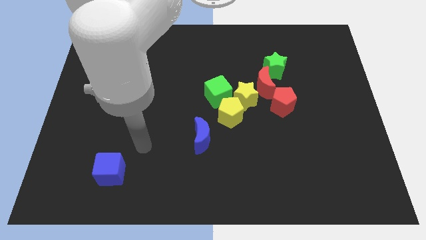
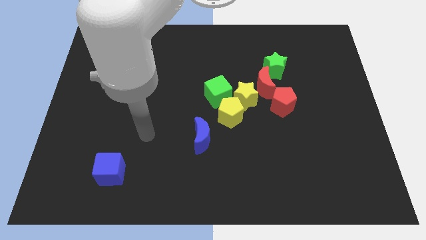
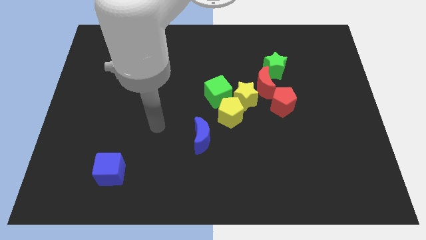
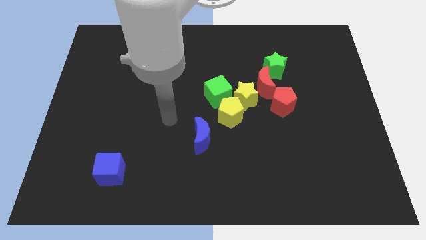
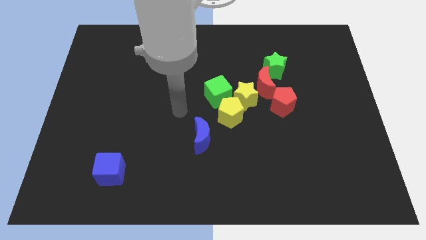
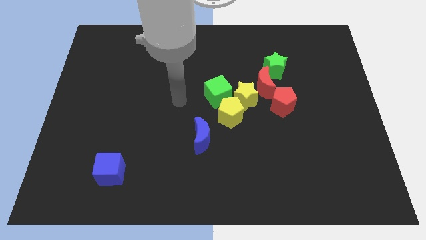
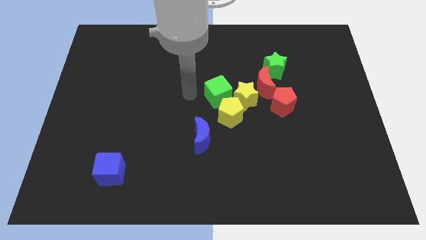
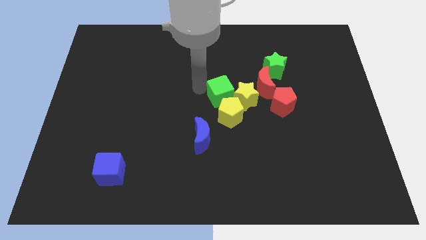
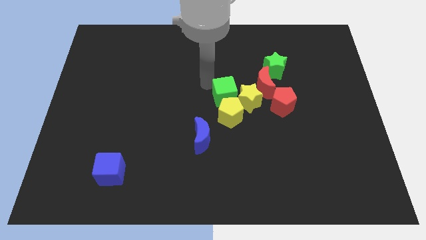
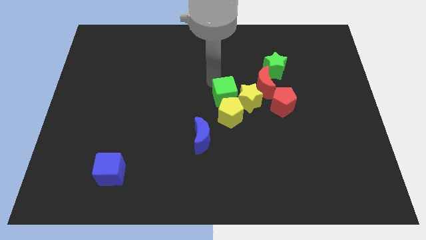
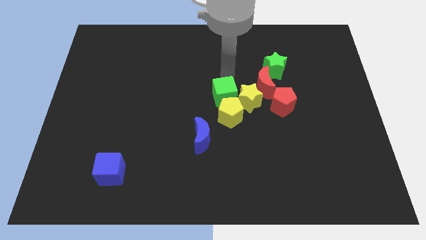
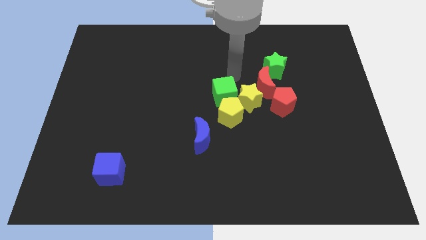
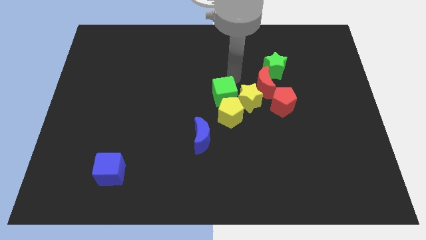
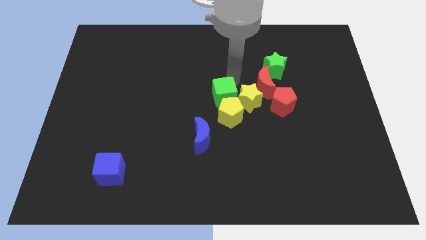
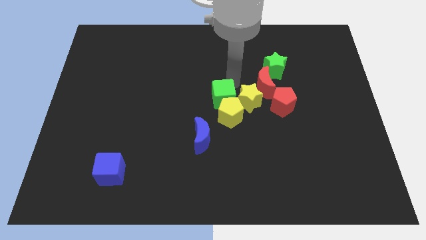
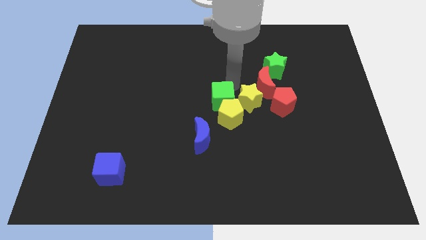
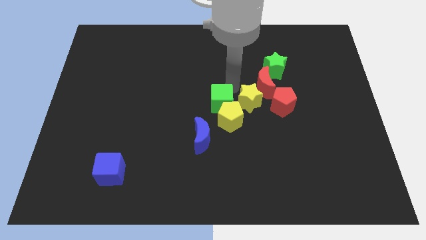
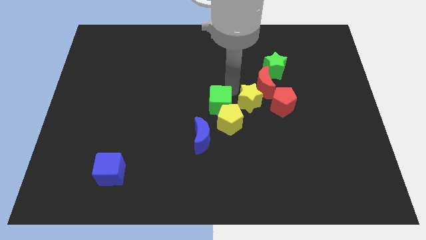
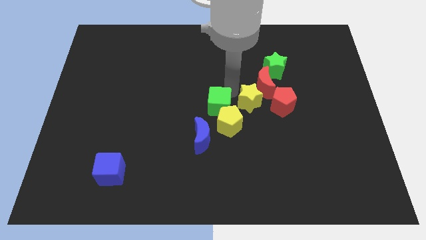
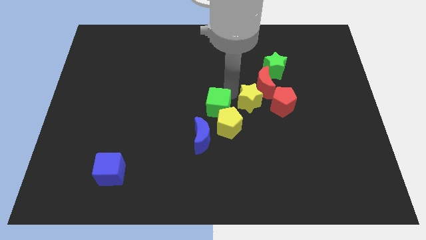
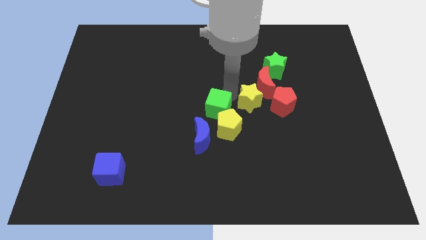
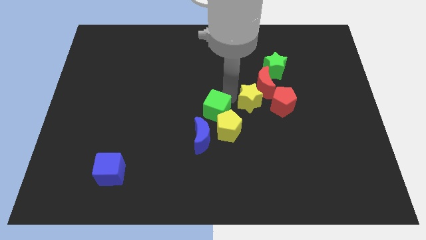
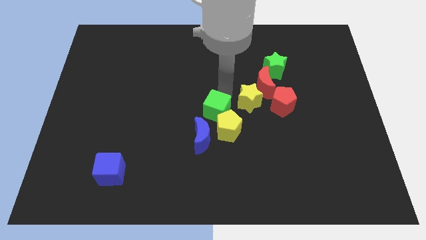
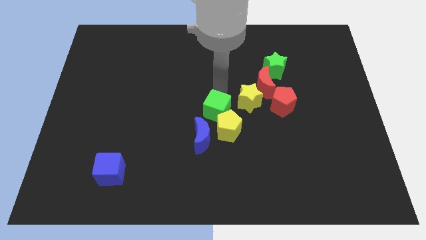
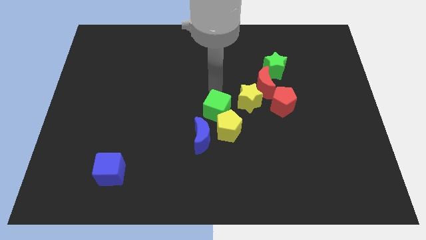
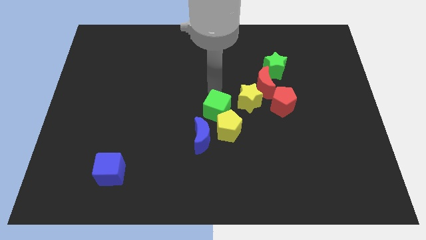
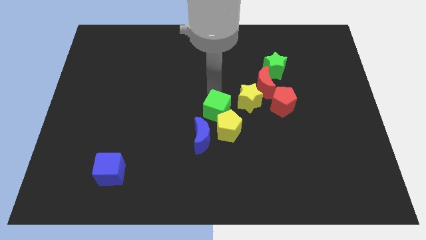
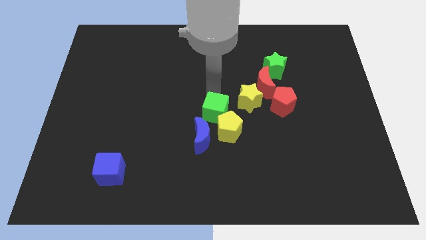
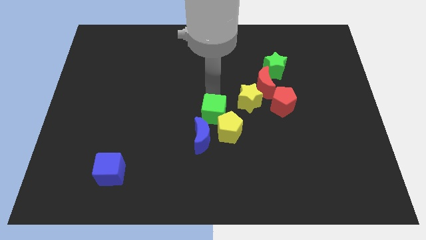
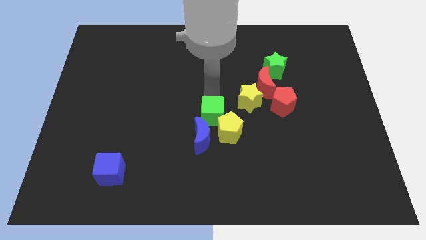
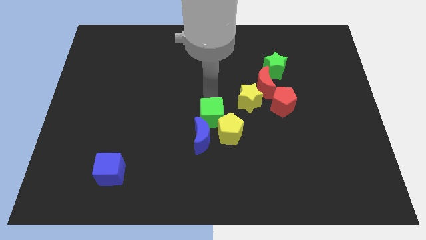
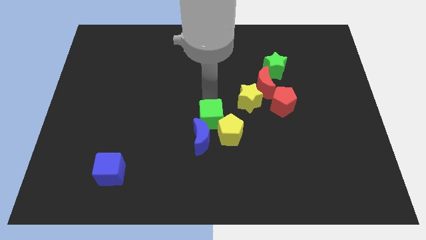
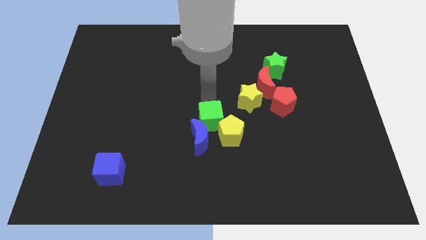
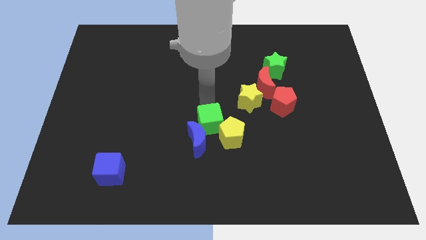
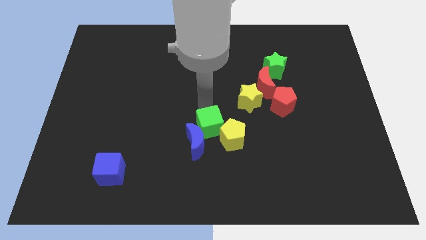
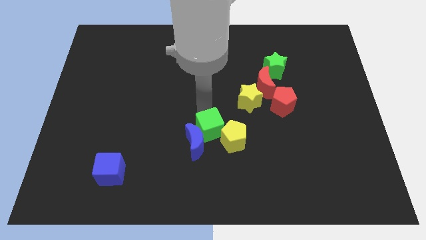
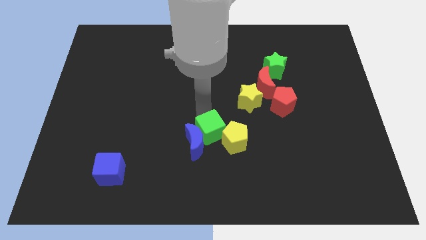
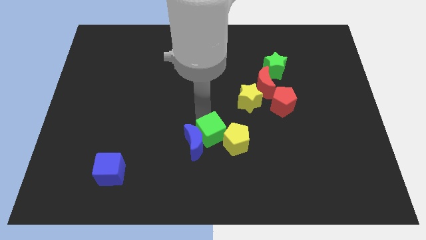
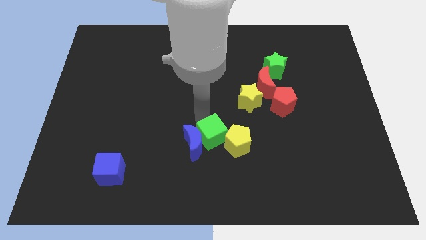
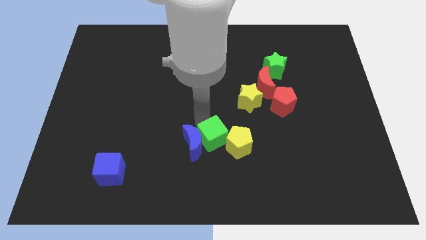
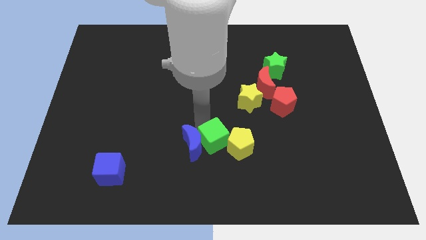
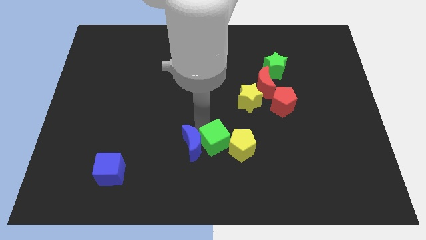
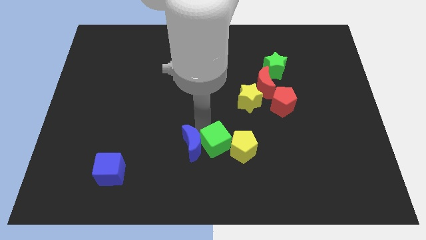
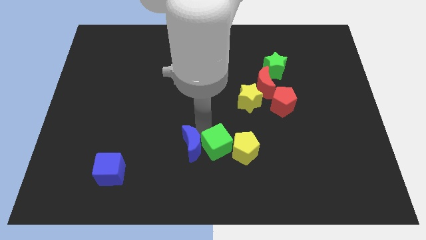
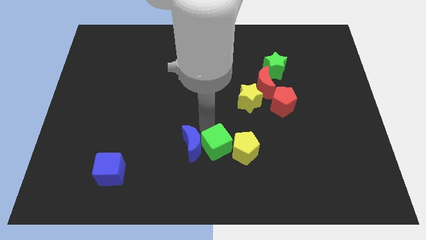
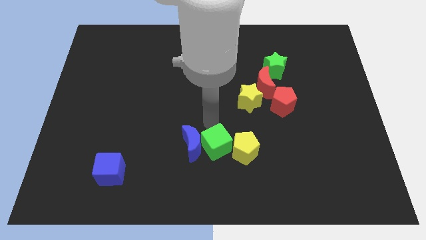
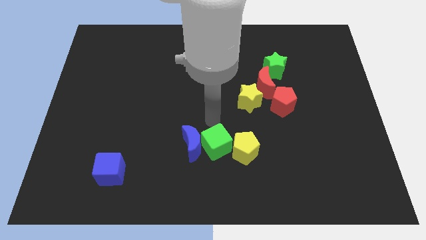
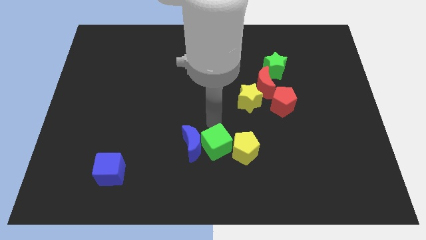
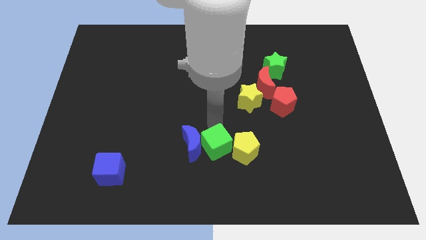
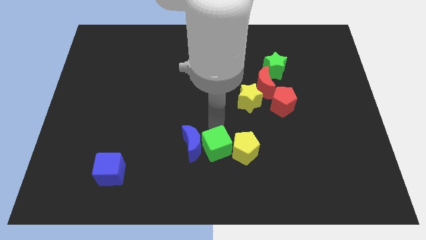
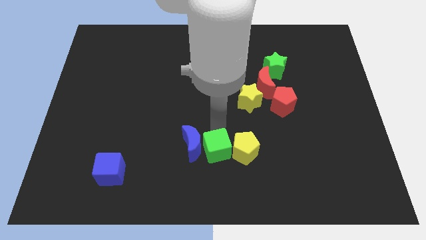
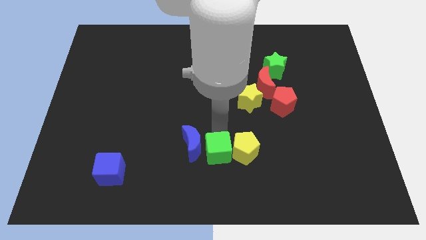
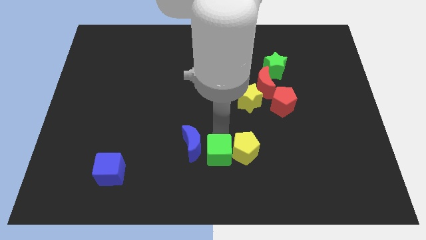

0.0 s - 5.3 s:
push the green cube to the bottom

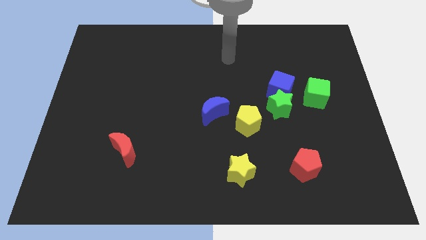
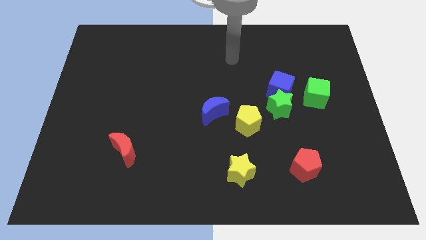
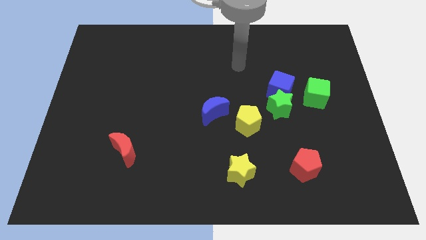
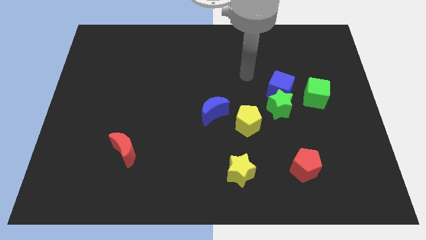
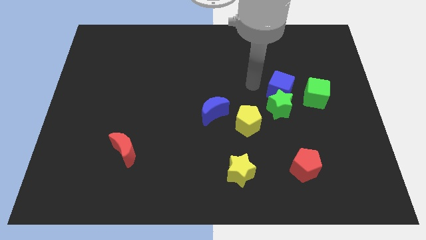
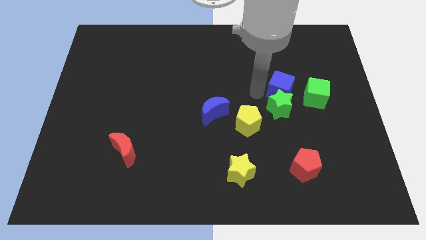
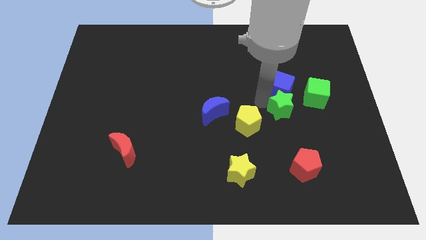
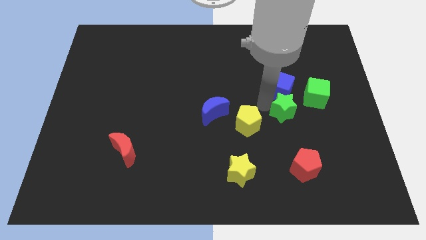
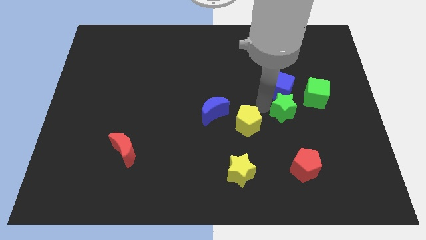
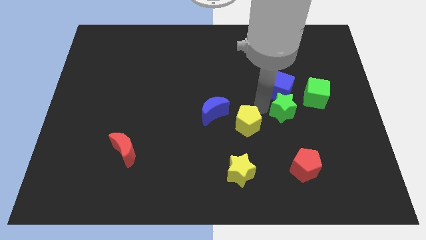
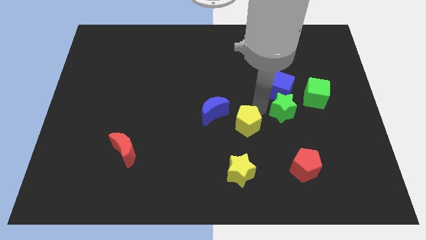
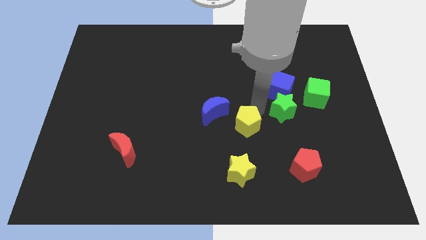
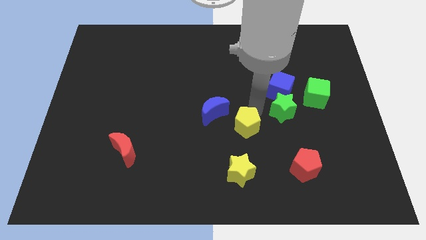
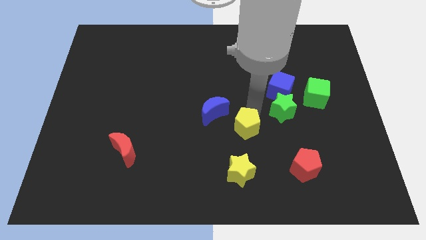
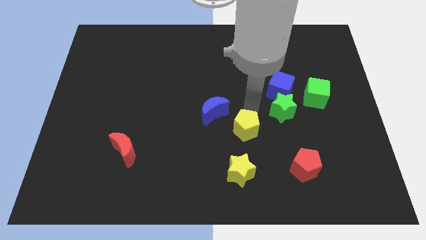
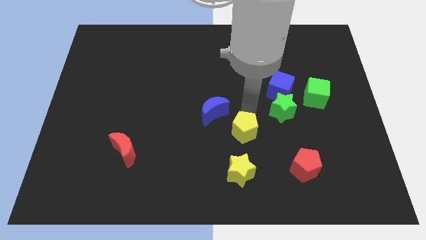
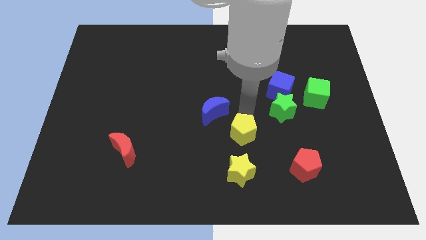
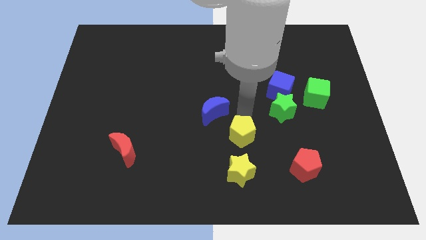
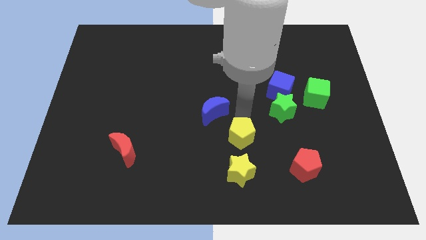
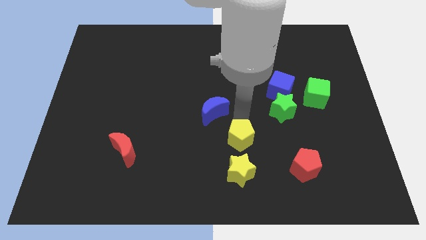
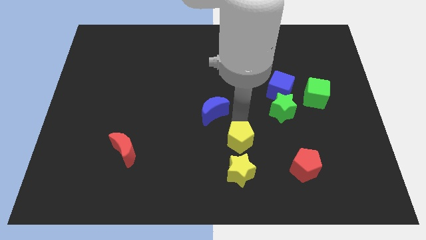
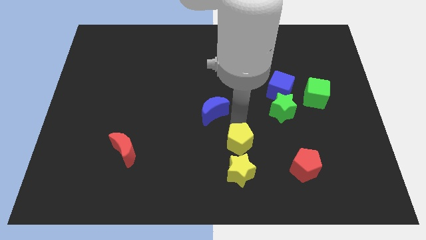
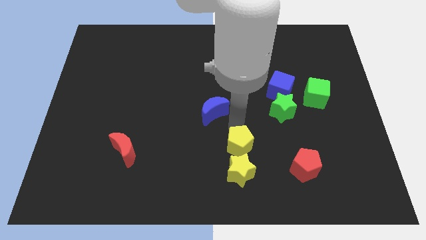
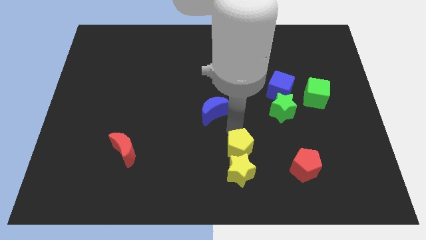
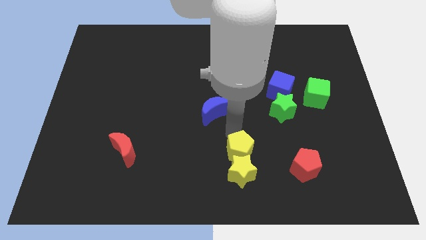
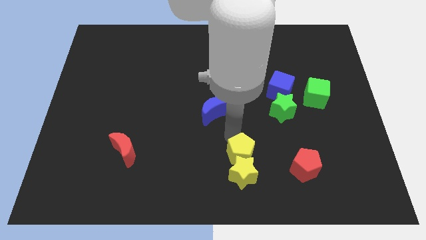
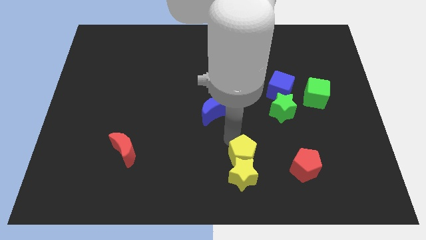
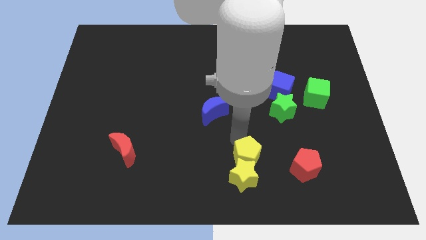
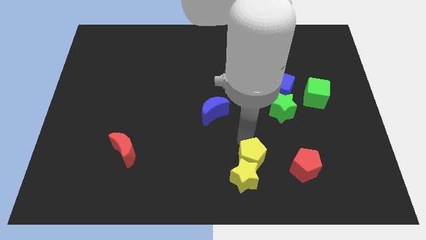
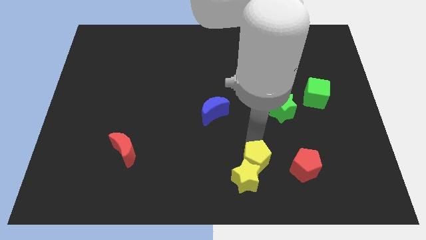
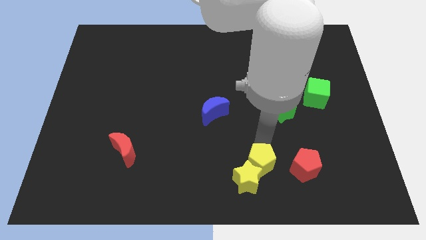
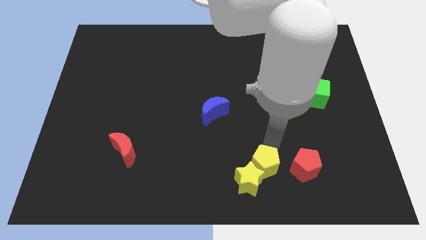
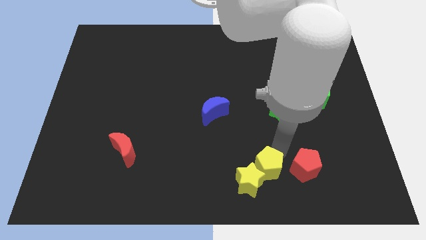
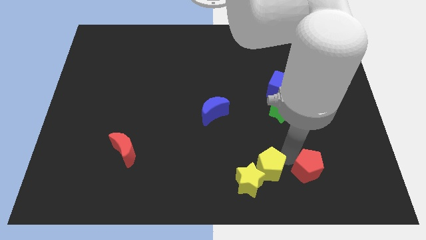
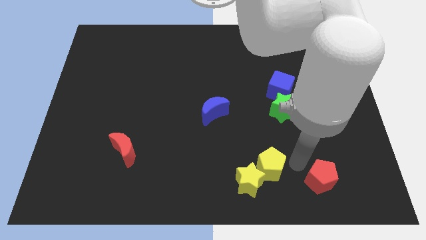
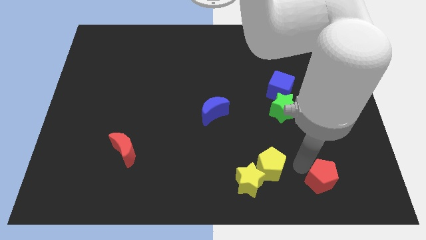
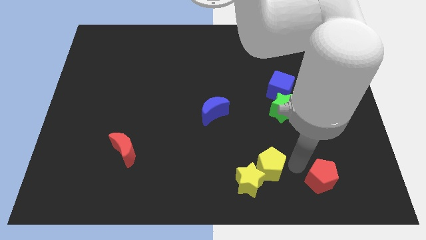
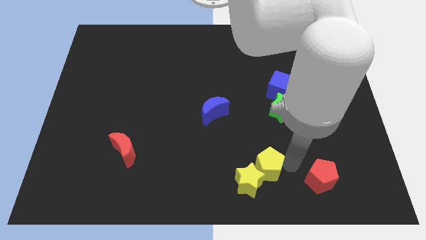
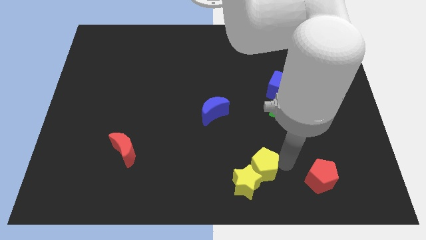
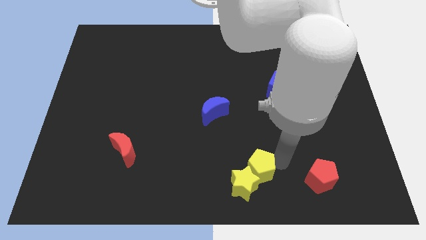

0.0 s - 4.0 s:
move the yellow pentagon to the bottom side
